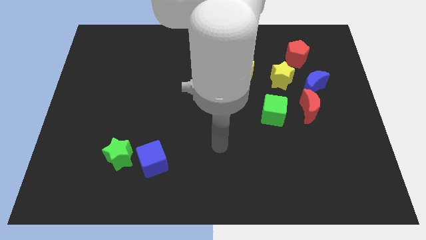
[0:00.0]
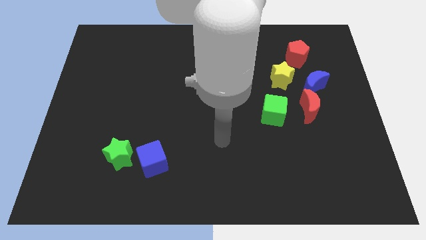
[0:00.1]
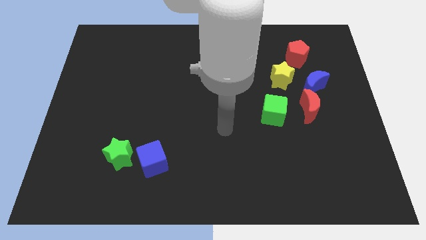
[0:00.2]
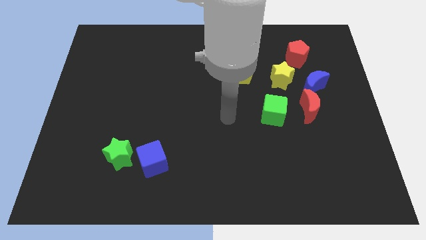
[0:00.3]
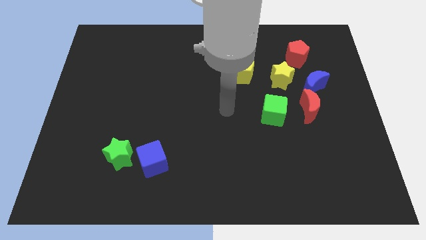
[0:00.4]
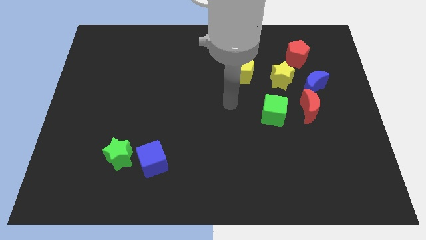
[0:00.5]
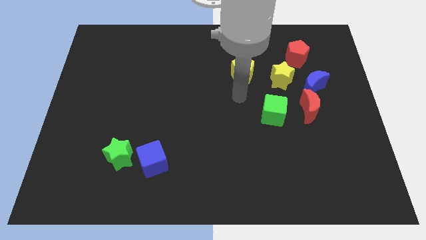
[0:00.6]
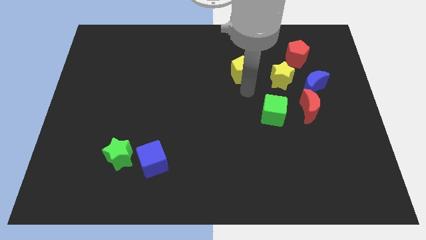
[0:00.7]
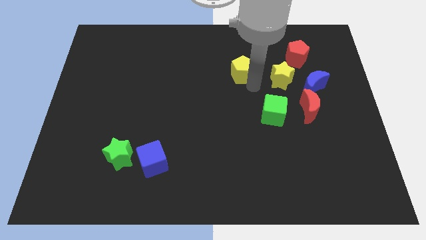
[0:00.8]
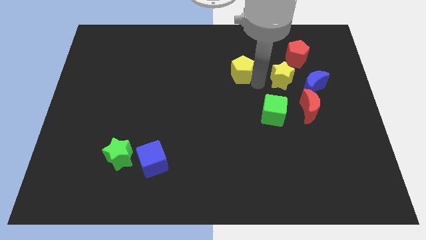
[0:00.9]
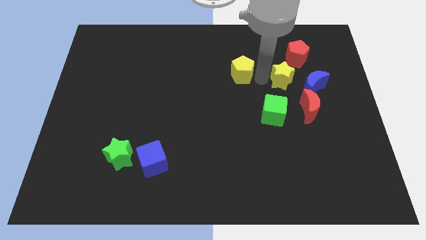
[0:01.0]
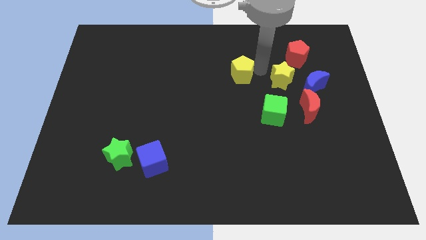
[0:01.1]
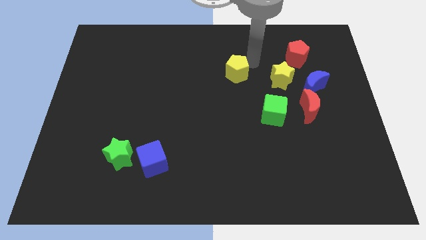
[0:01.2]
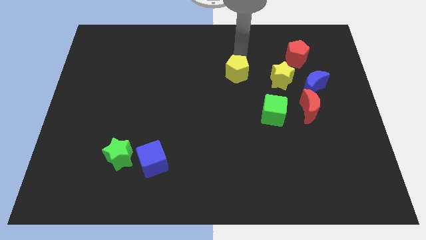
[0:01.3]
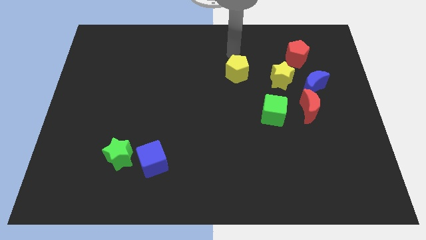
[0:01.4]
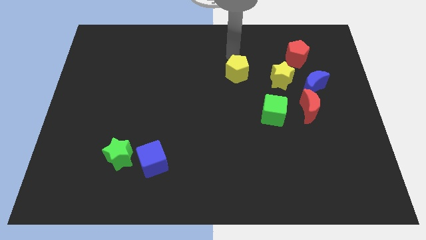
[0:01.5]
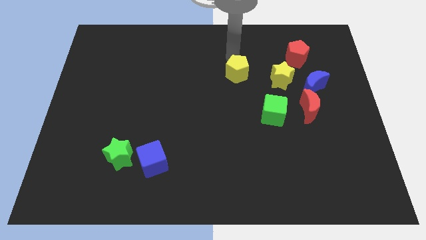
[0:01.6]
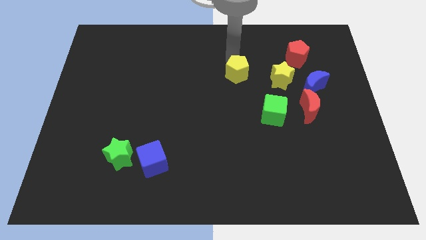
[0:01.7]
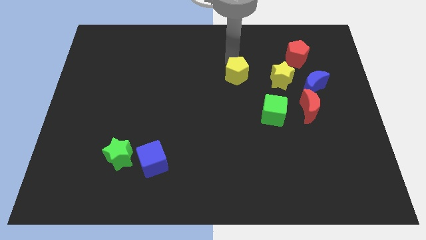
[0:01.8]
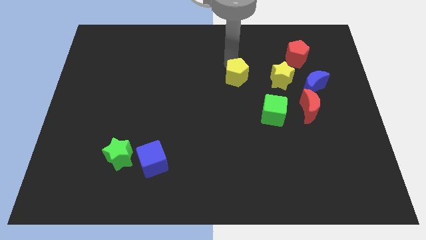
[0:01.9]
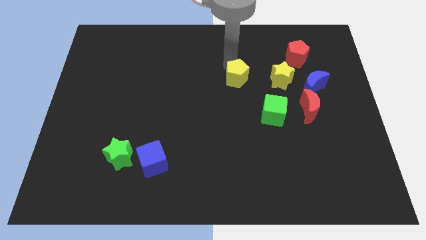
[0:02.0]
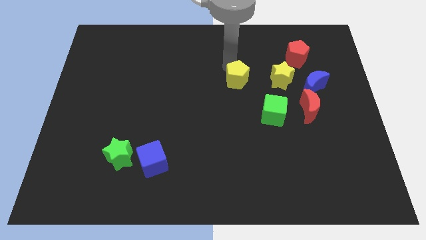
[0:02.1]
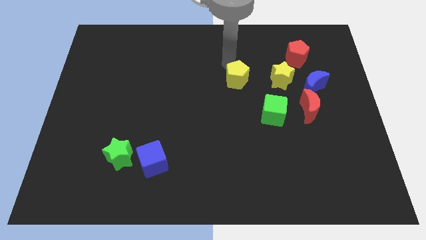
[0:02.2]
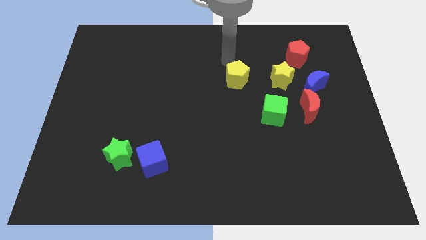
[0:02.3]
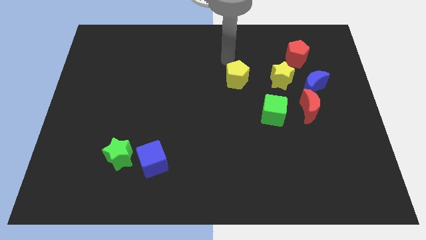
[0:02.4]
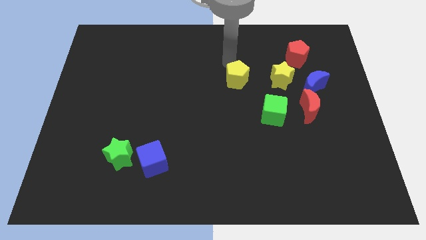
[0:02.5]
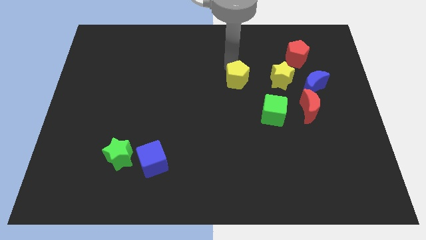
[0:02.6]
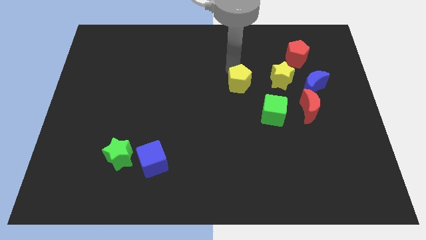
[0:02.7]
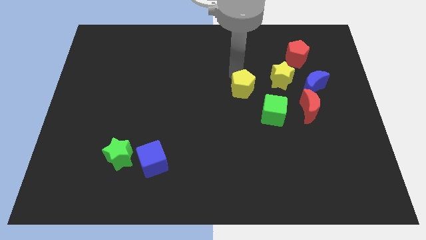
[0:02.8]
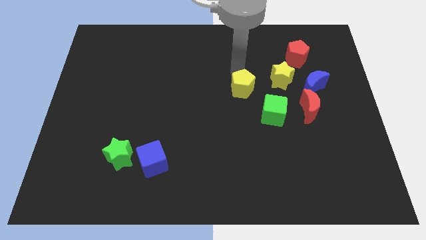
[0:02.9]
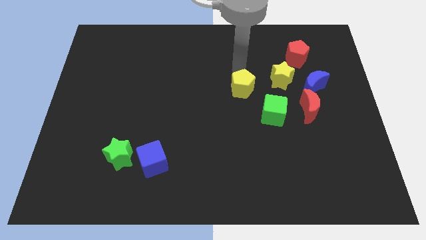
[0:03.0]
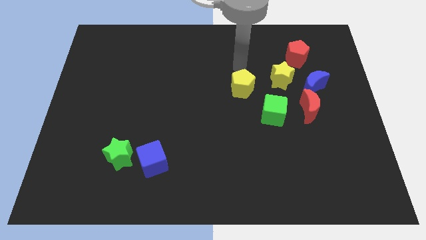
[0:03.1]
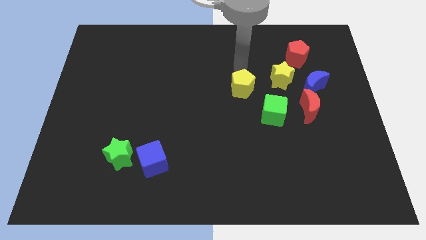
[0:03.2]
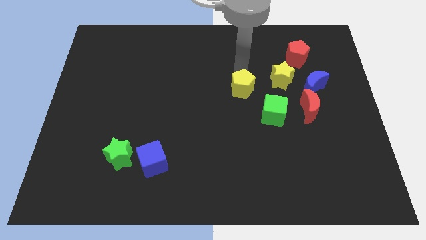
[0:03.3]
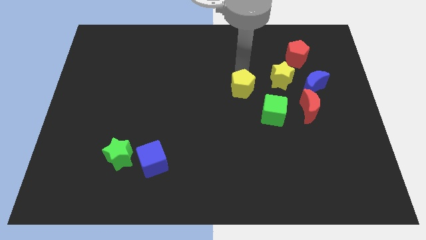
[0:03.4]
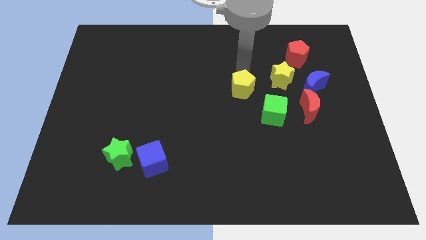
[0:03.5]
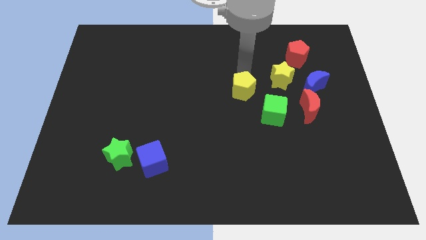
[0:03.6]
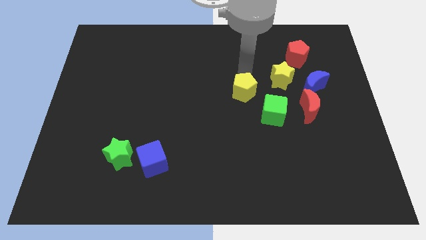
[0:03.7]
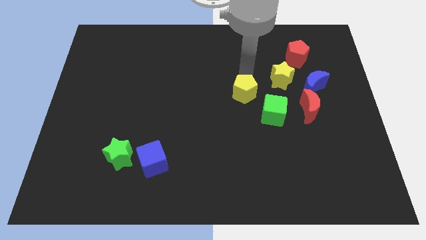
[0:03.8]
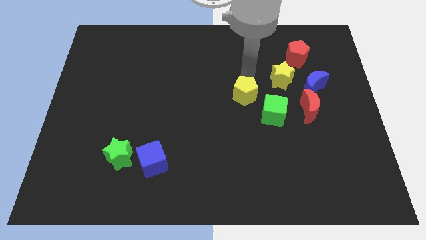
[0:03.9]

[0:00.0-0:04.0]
push the yellow pentagon a bit down

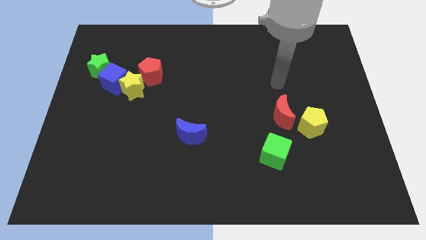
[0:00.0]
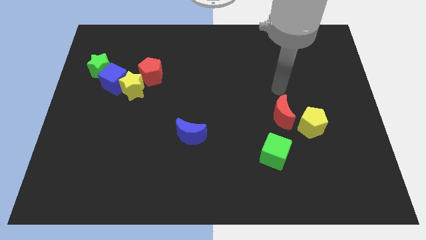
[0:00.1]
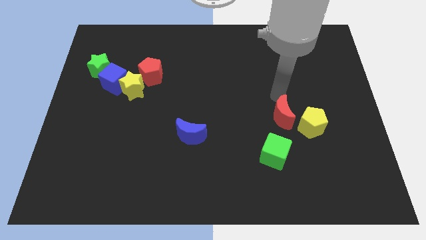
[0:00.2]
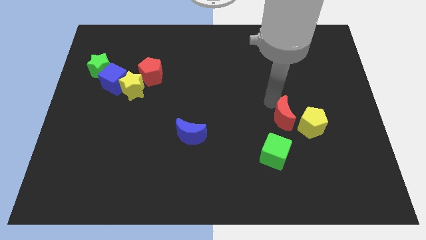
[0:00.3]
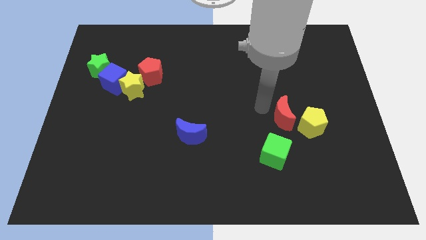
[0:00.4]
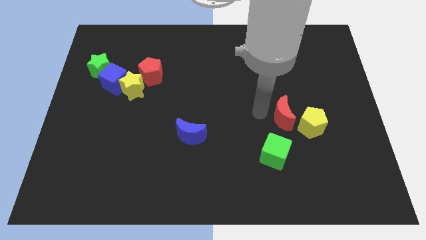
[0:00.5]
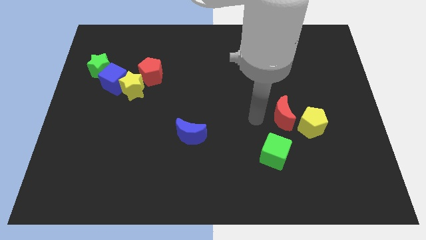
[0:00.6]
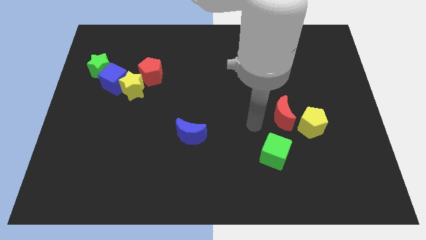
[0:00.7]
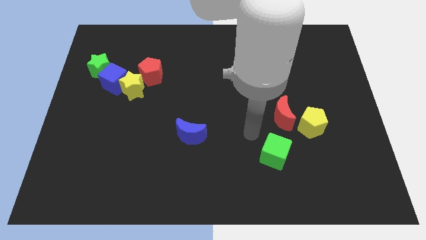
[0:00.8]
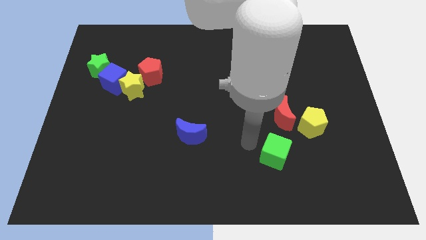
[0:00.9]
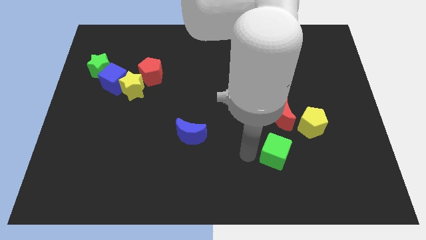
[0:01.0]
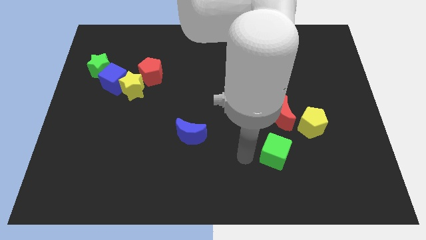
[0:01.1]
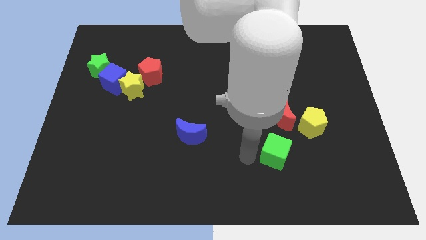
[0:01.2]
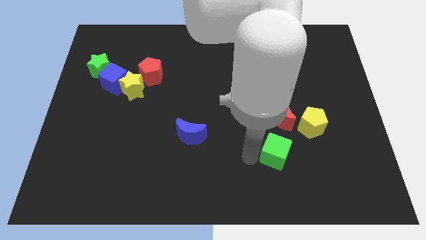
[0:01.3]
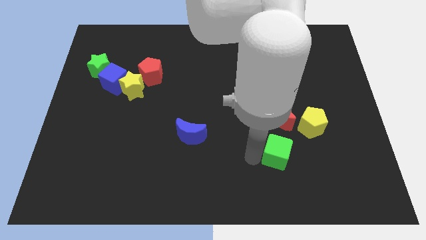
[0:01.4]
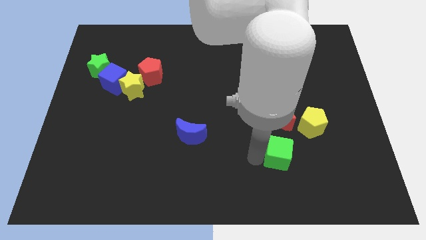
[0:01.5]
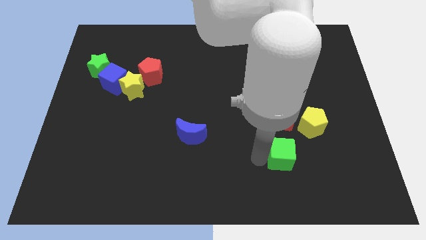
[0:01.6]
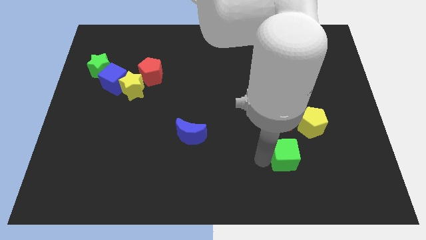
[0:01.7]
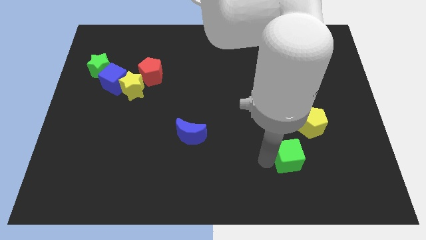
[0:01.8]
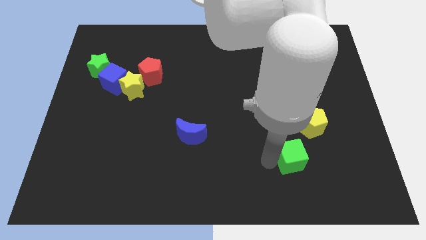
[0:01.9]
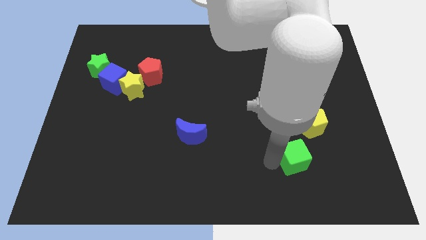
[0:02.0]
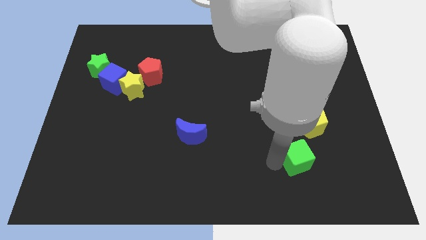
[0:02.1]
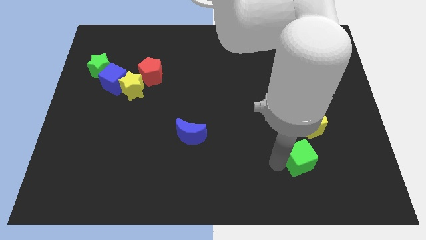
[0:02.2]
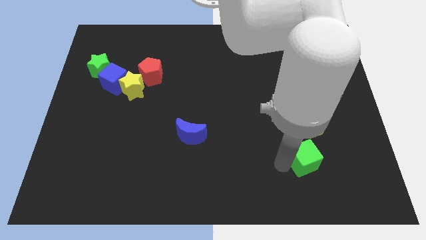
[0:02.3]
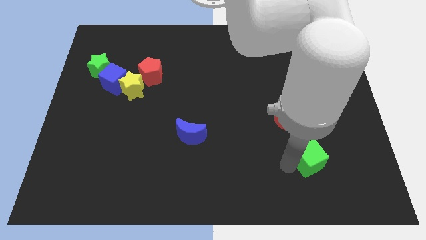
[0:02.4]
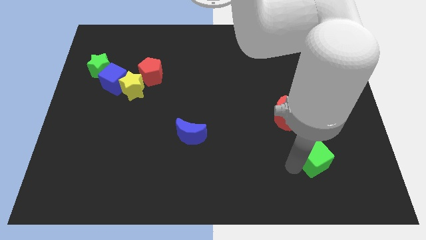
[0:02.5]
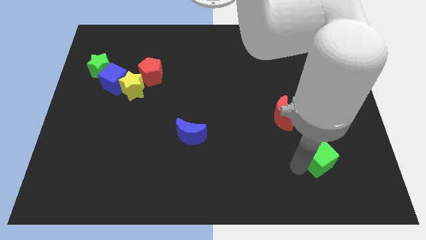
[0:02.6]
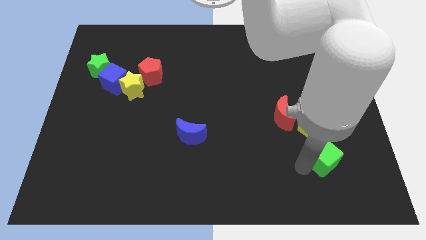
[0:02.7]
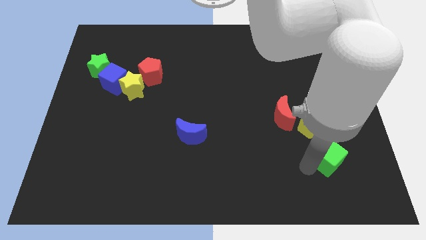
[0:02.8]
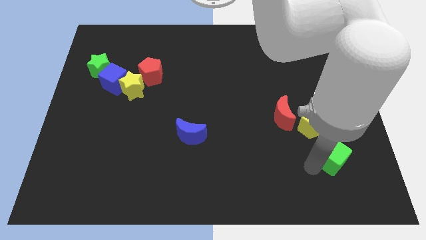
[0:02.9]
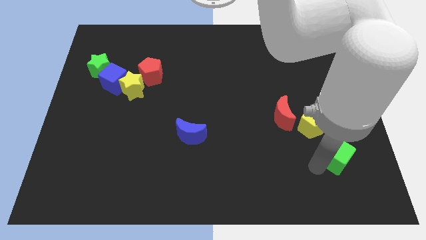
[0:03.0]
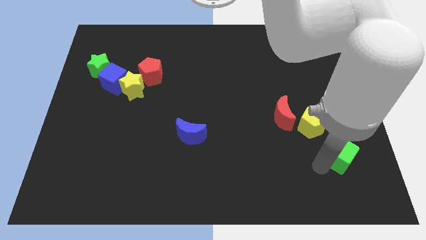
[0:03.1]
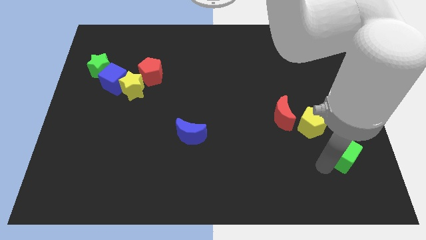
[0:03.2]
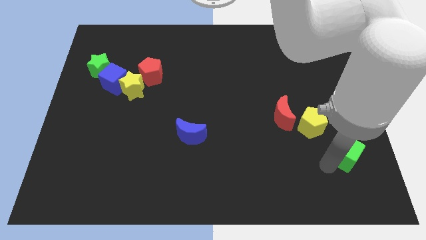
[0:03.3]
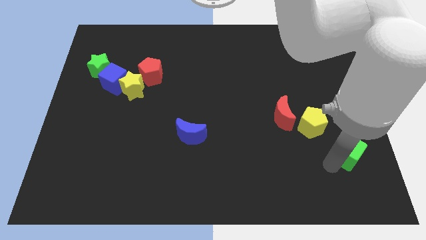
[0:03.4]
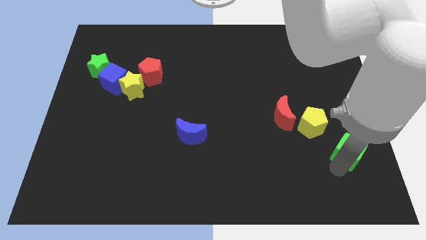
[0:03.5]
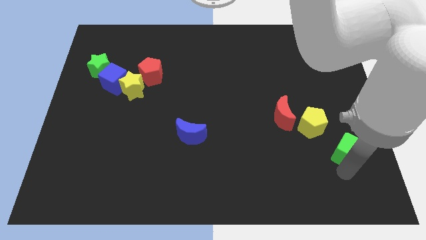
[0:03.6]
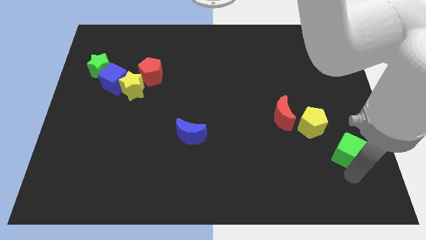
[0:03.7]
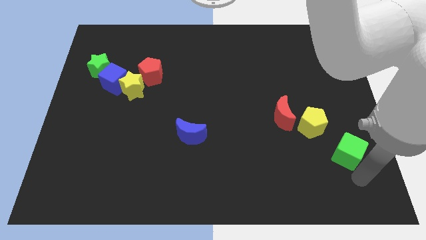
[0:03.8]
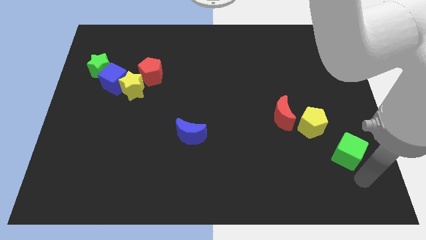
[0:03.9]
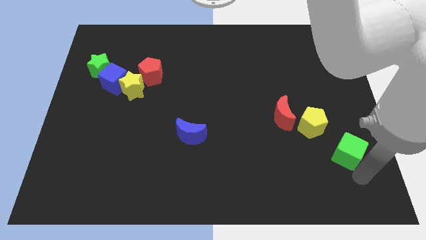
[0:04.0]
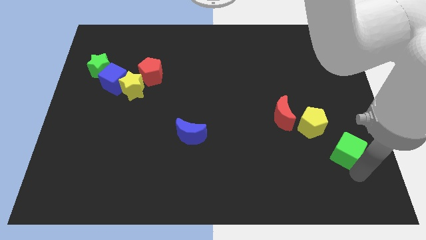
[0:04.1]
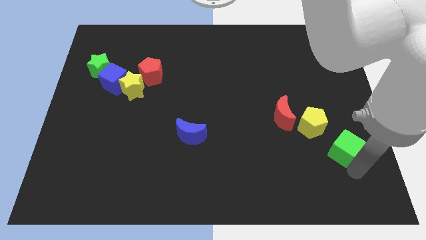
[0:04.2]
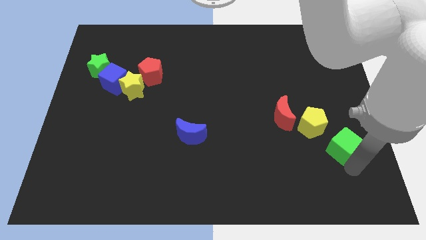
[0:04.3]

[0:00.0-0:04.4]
push the green cube somewhat diagonally upwards and right
